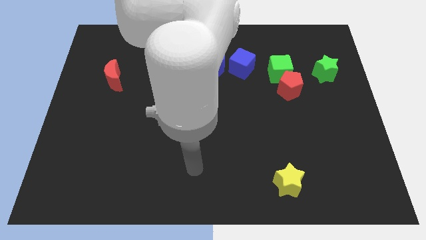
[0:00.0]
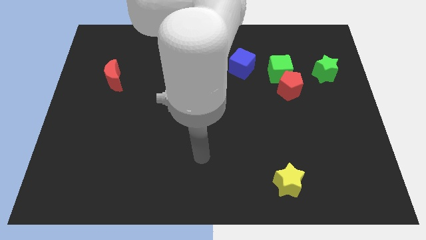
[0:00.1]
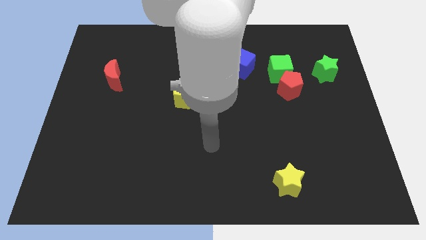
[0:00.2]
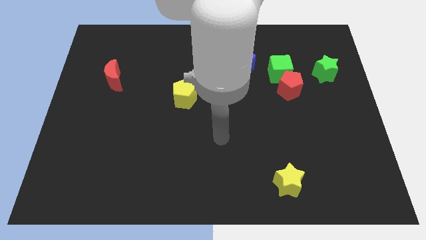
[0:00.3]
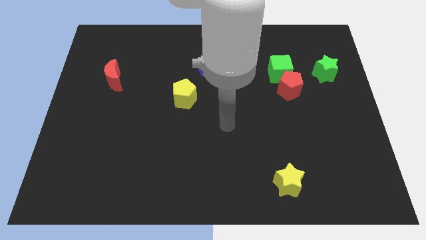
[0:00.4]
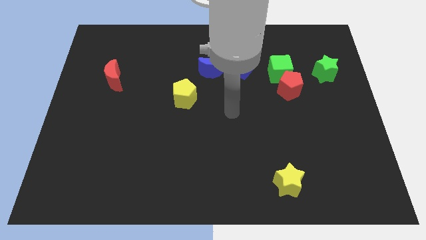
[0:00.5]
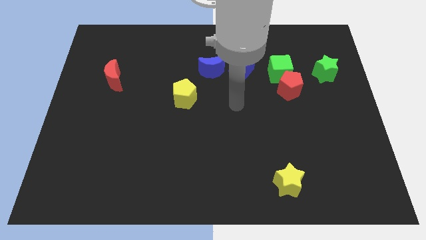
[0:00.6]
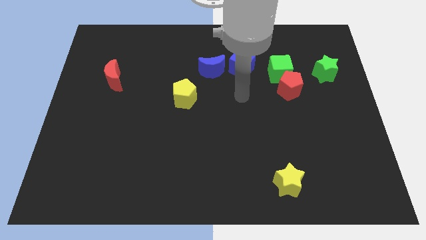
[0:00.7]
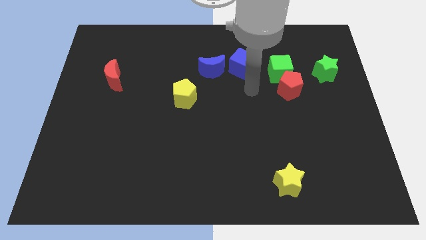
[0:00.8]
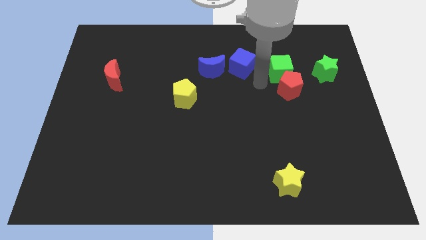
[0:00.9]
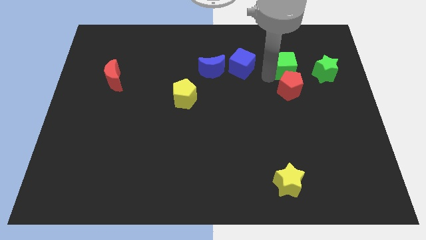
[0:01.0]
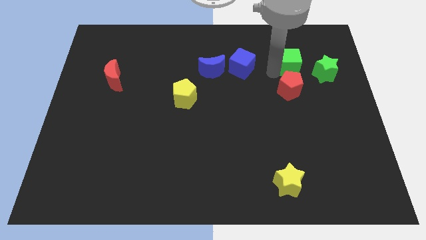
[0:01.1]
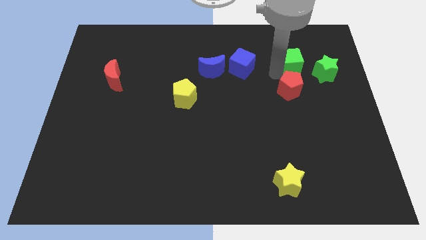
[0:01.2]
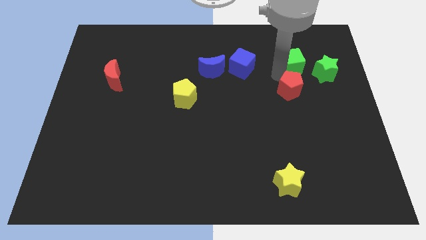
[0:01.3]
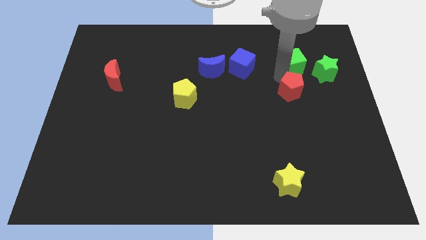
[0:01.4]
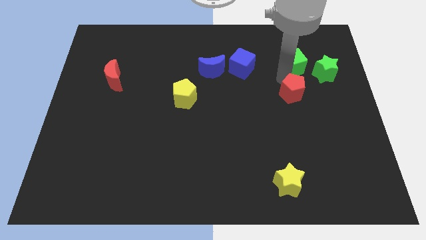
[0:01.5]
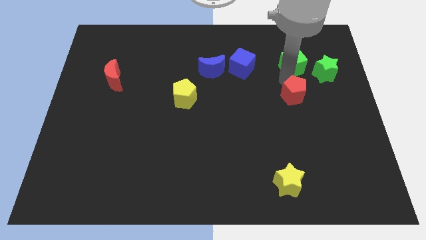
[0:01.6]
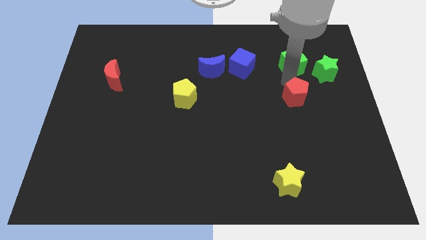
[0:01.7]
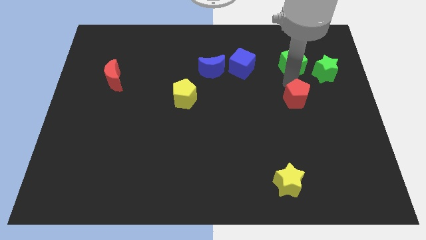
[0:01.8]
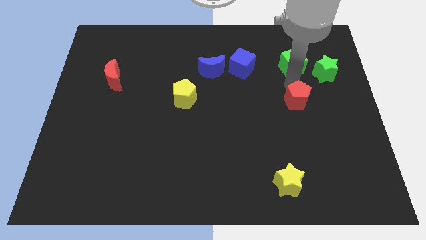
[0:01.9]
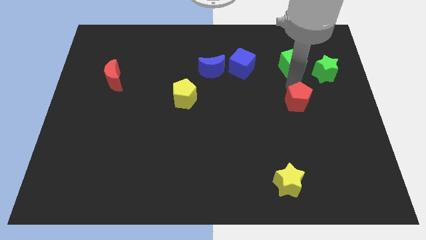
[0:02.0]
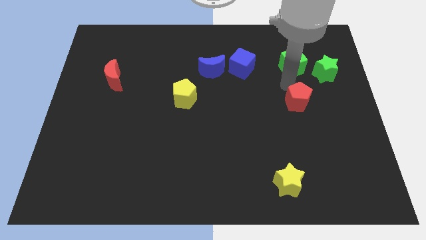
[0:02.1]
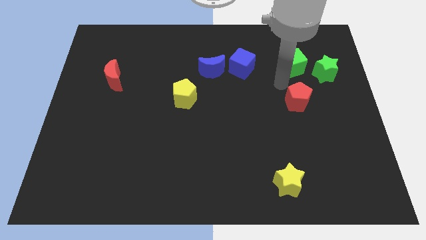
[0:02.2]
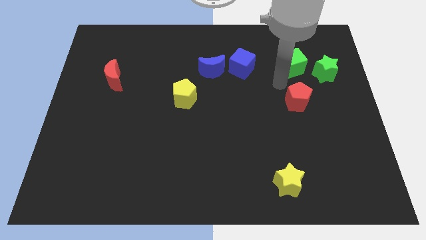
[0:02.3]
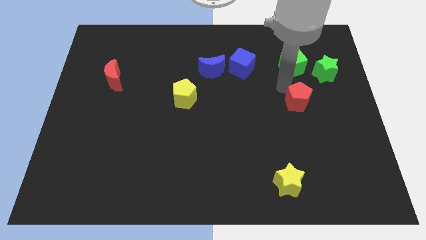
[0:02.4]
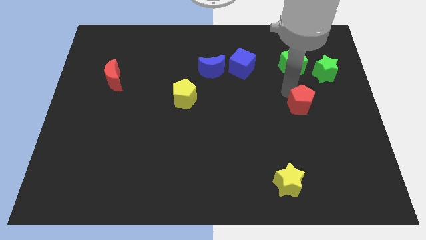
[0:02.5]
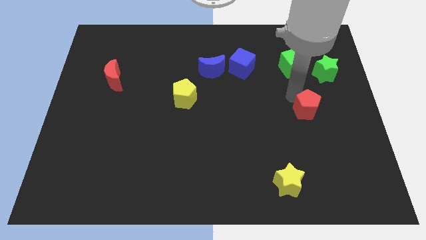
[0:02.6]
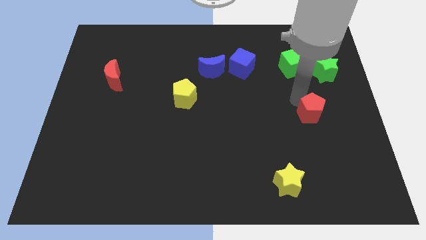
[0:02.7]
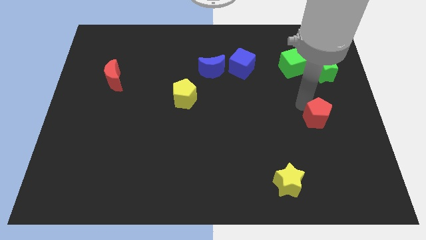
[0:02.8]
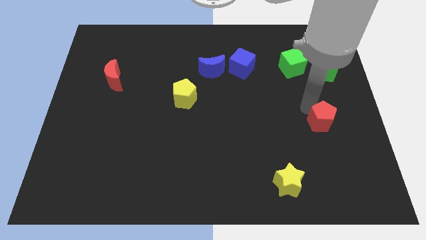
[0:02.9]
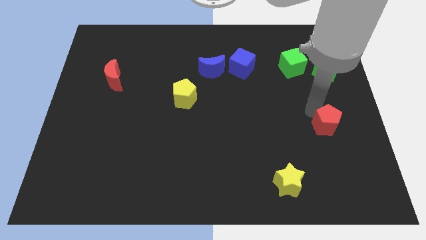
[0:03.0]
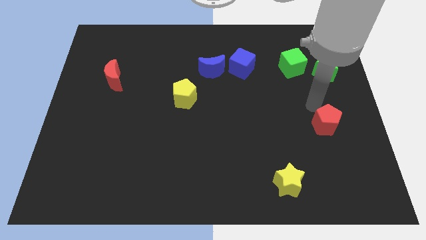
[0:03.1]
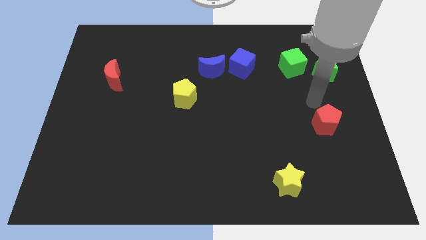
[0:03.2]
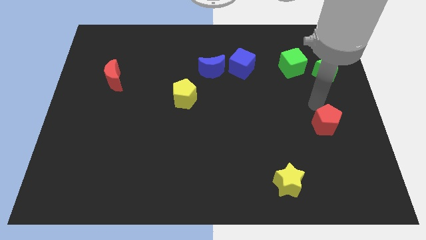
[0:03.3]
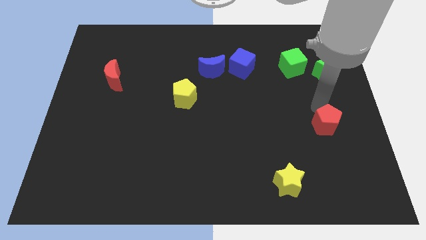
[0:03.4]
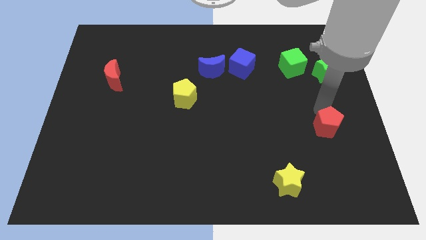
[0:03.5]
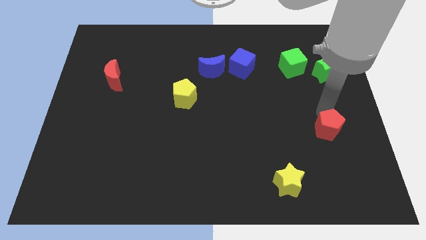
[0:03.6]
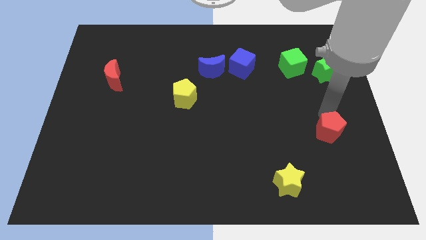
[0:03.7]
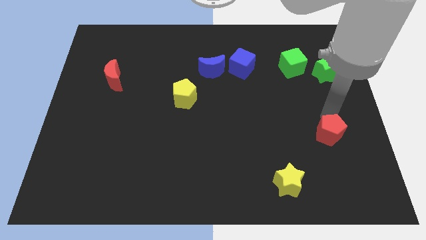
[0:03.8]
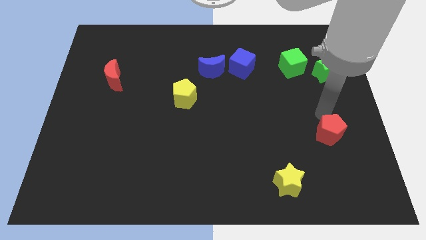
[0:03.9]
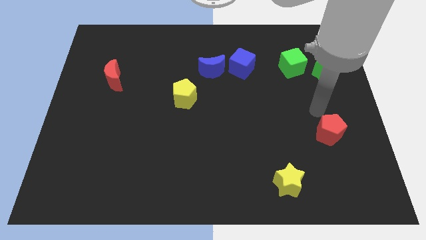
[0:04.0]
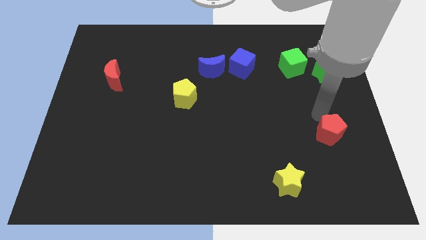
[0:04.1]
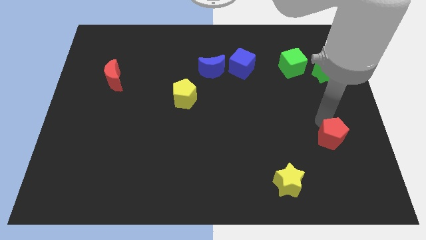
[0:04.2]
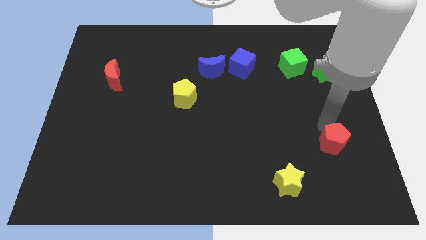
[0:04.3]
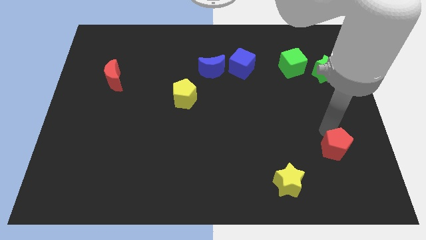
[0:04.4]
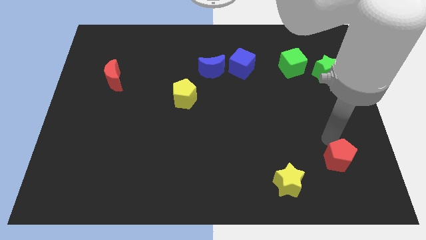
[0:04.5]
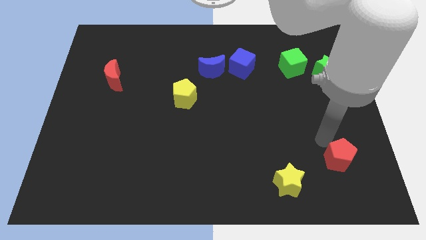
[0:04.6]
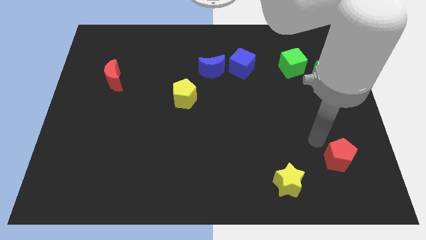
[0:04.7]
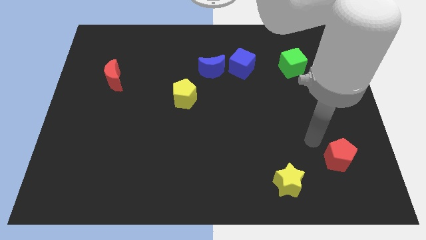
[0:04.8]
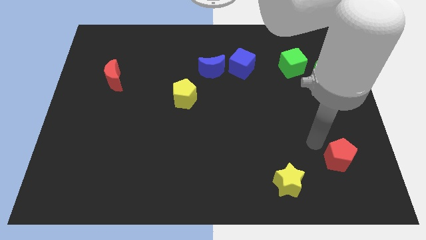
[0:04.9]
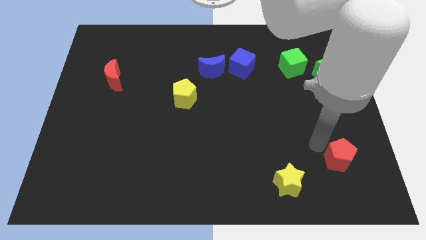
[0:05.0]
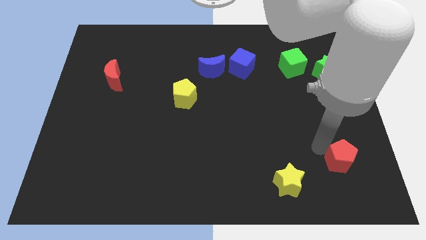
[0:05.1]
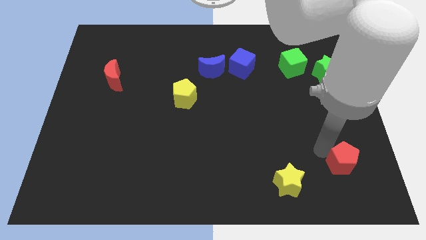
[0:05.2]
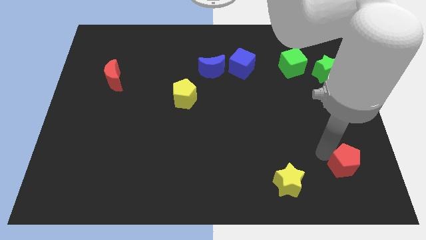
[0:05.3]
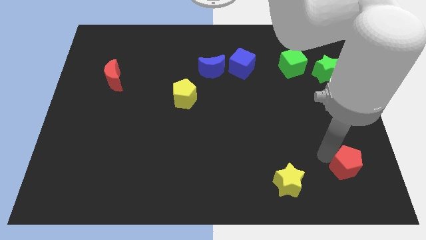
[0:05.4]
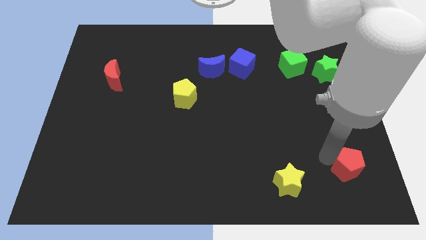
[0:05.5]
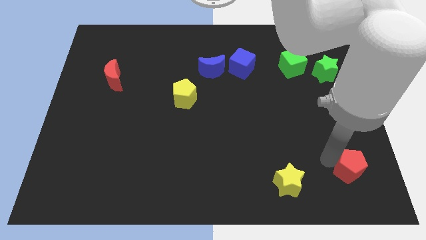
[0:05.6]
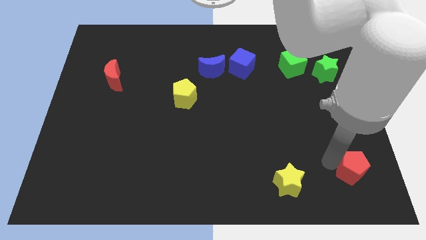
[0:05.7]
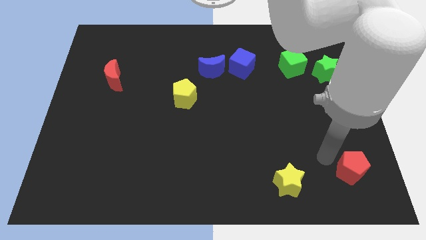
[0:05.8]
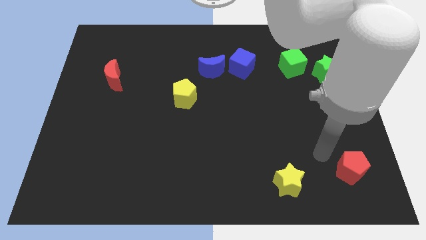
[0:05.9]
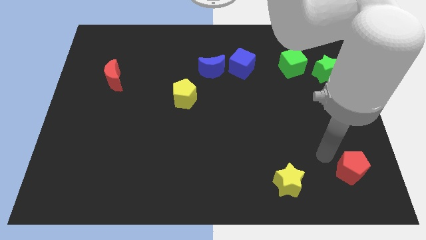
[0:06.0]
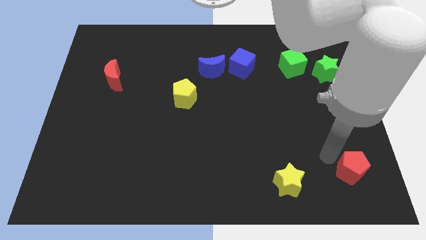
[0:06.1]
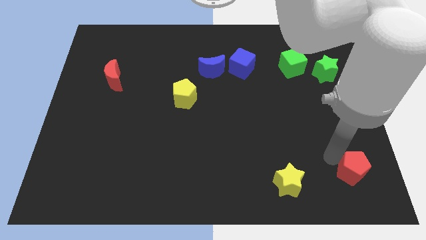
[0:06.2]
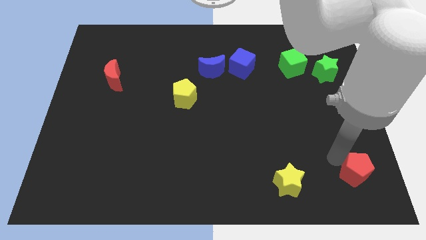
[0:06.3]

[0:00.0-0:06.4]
move the red pentagon to the bottom right corner
